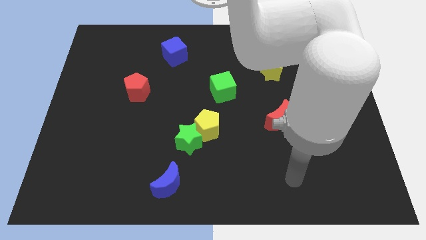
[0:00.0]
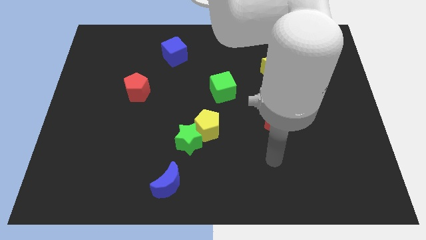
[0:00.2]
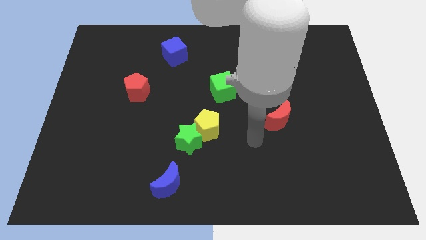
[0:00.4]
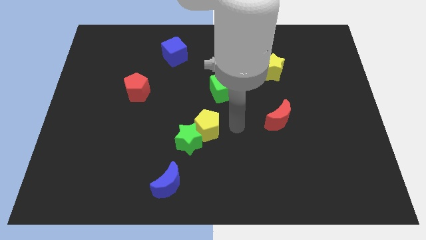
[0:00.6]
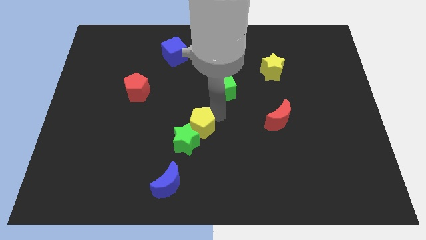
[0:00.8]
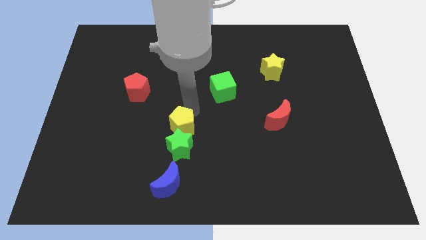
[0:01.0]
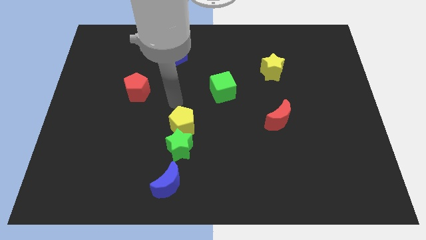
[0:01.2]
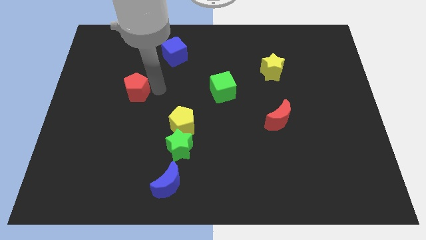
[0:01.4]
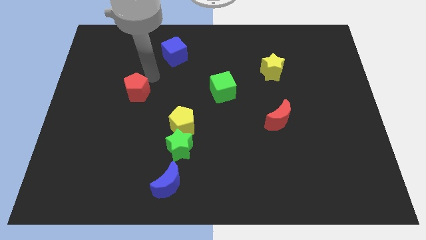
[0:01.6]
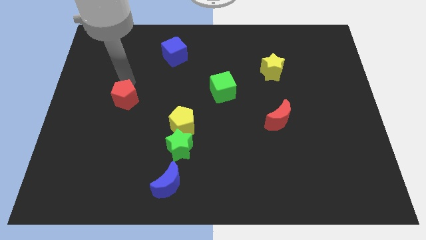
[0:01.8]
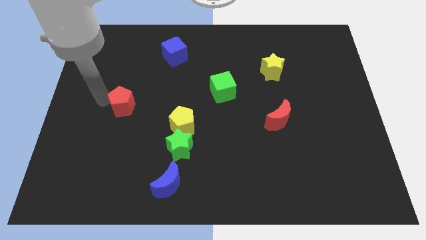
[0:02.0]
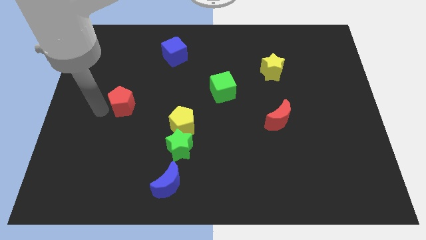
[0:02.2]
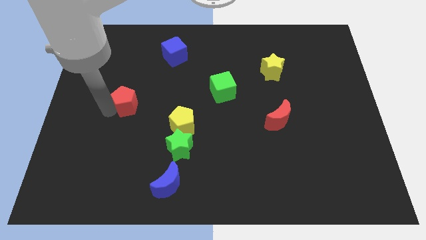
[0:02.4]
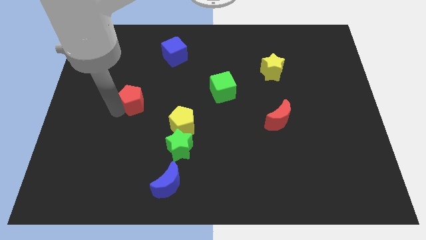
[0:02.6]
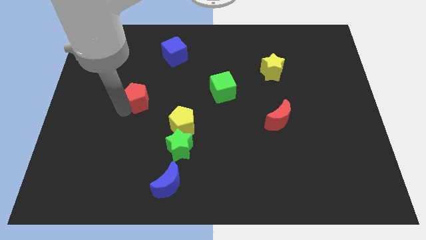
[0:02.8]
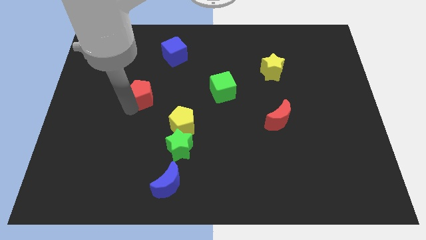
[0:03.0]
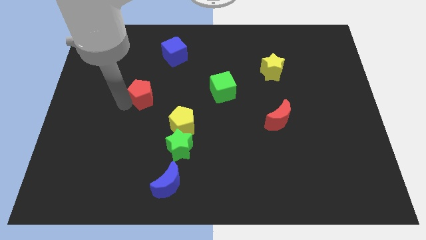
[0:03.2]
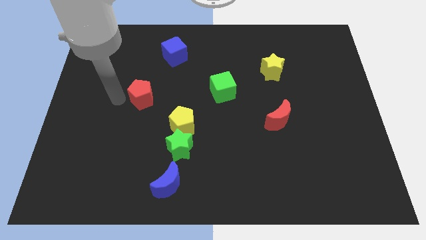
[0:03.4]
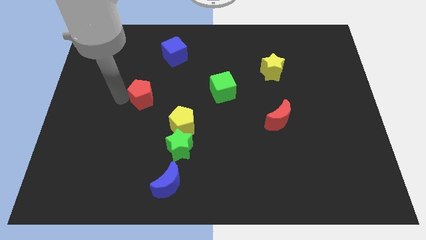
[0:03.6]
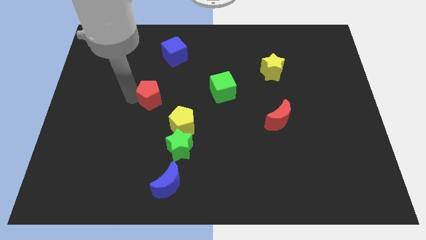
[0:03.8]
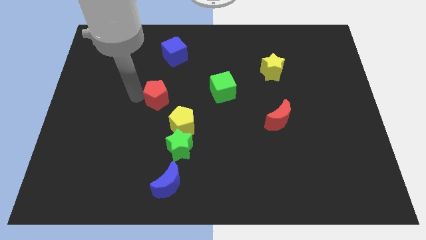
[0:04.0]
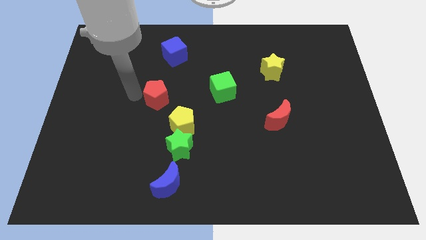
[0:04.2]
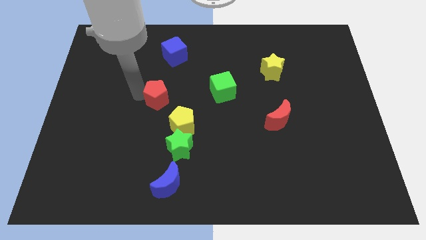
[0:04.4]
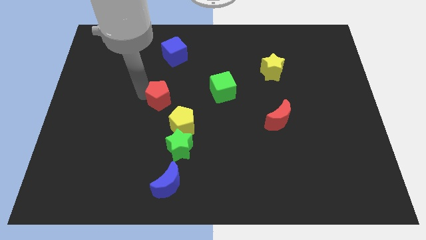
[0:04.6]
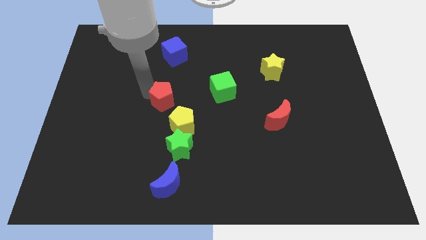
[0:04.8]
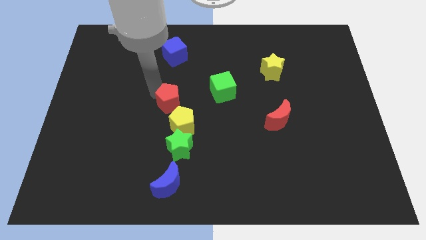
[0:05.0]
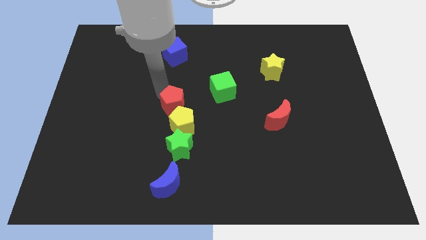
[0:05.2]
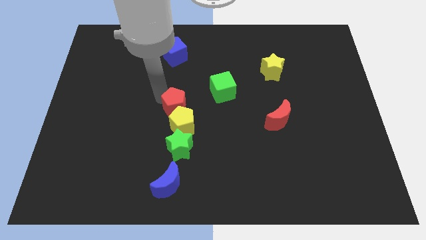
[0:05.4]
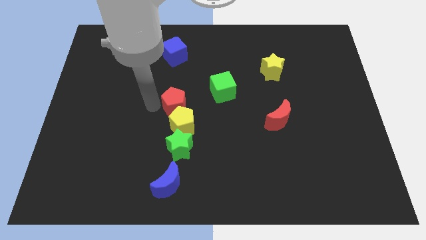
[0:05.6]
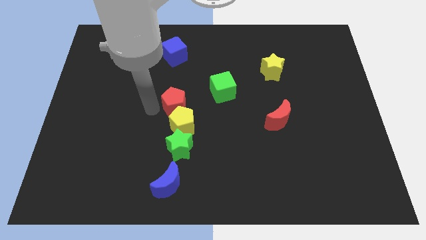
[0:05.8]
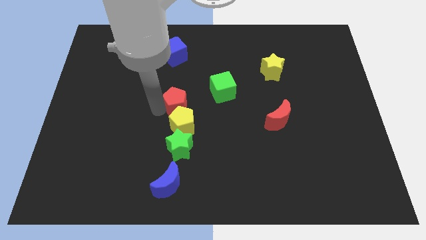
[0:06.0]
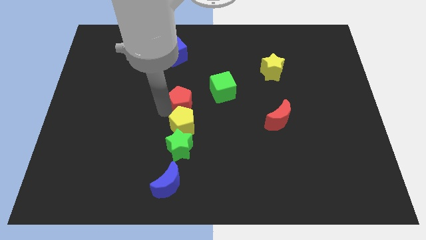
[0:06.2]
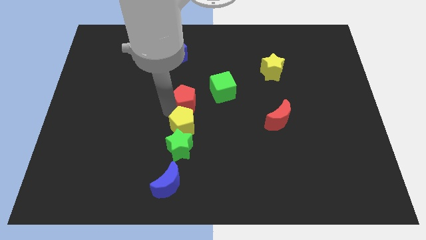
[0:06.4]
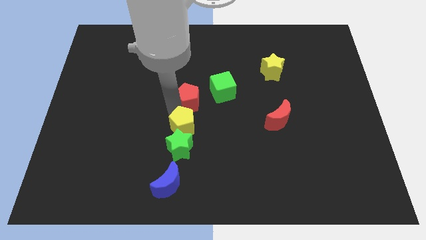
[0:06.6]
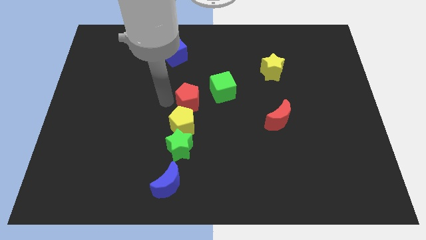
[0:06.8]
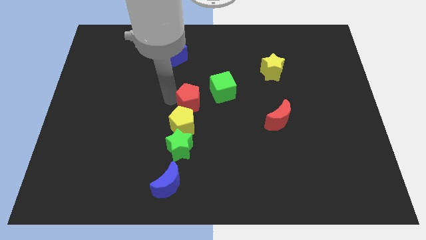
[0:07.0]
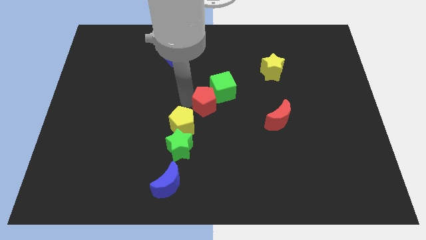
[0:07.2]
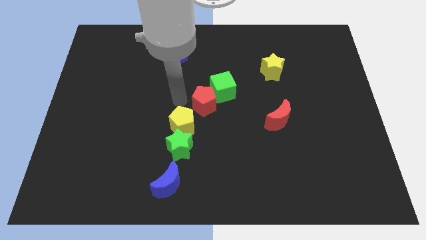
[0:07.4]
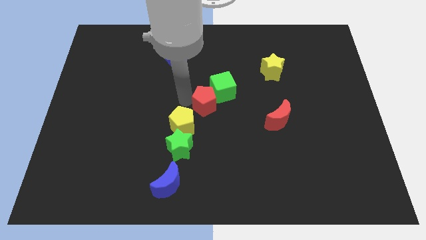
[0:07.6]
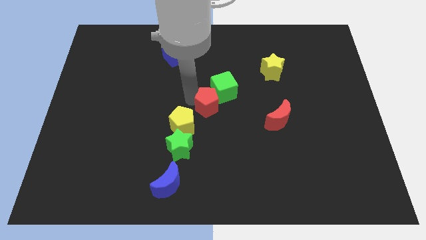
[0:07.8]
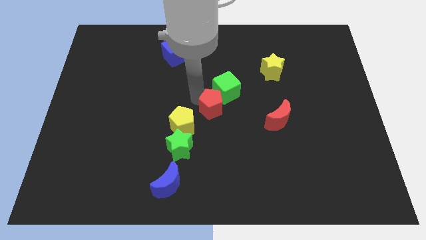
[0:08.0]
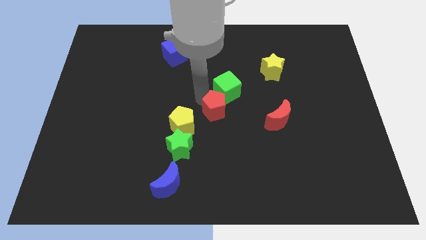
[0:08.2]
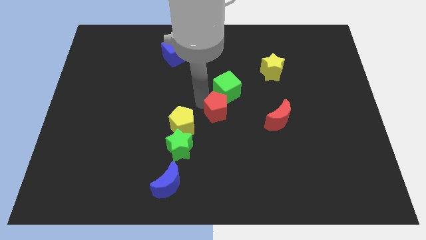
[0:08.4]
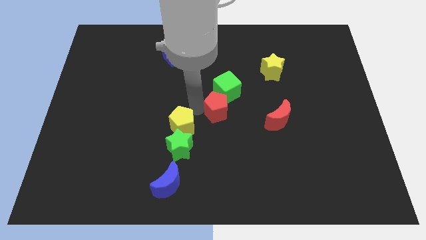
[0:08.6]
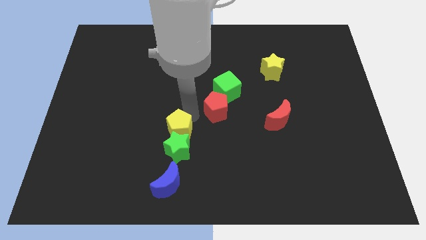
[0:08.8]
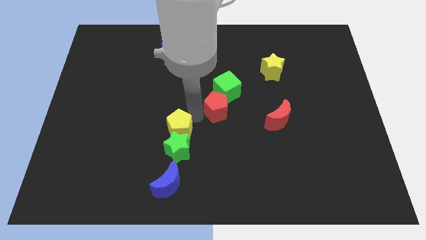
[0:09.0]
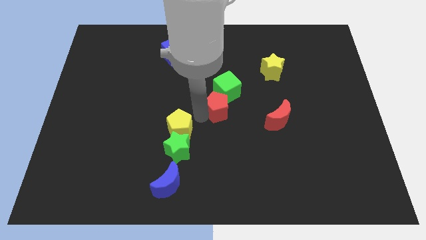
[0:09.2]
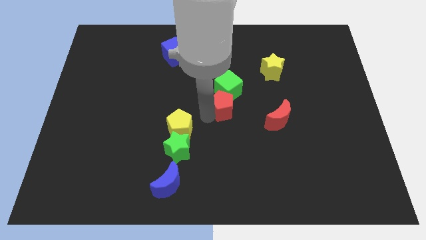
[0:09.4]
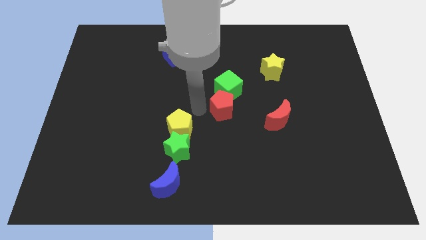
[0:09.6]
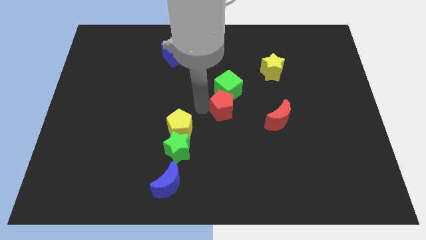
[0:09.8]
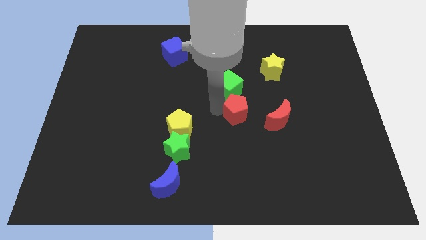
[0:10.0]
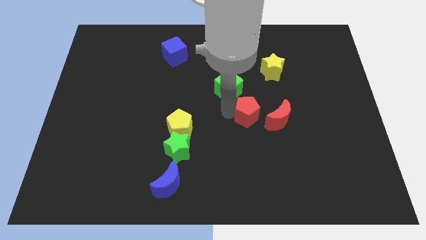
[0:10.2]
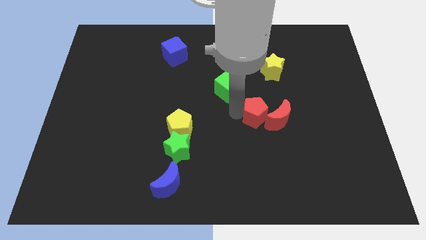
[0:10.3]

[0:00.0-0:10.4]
push the red pentagon close to the red moon

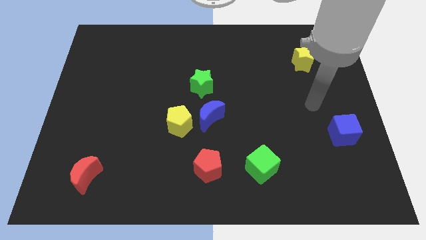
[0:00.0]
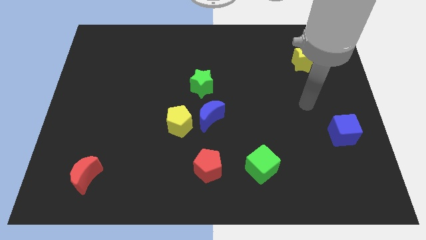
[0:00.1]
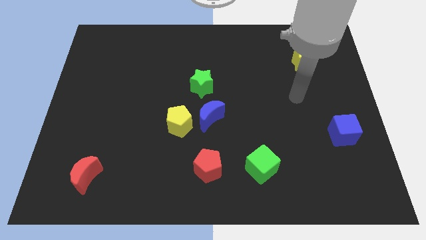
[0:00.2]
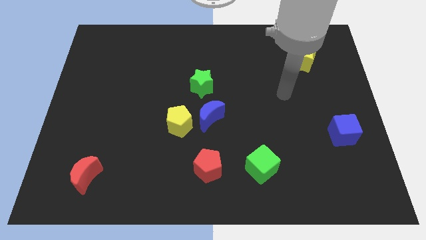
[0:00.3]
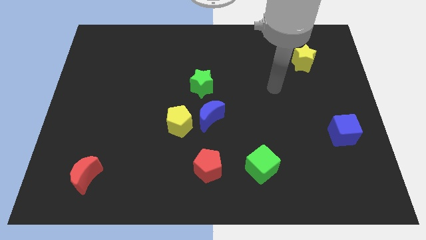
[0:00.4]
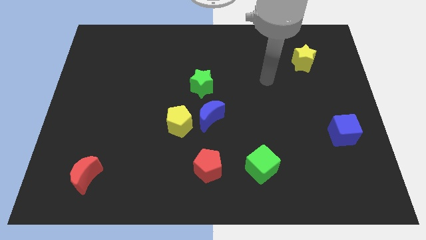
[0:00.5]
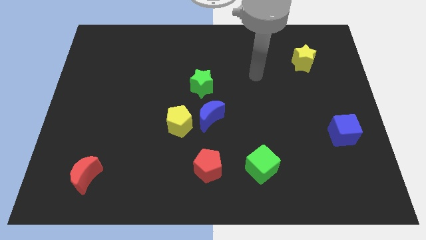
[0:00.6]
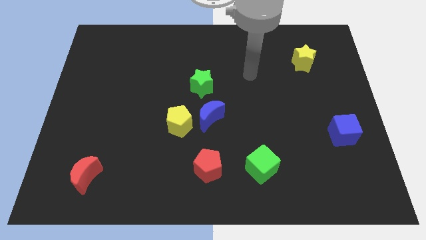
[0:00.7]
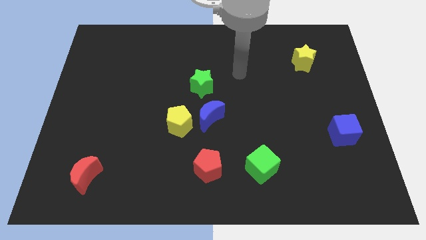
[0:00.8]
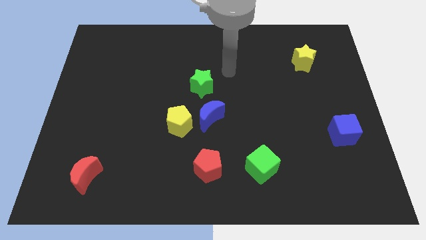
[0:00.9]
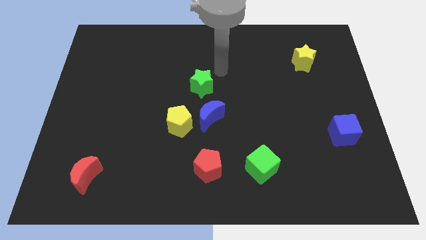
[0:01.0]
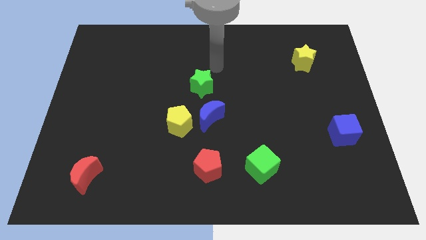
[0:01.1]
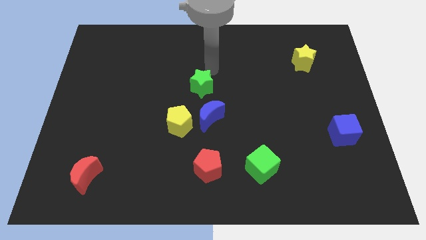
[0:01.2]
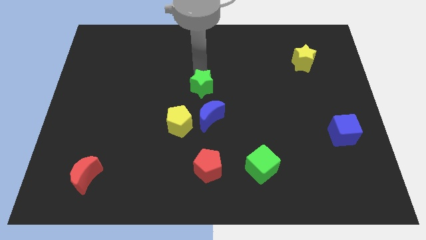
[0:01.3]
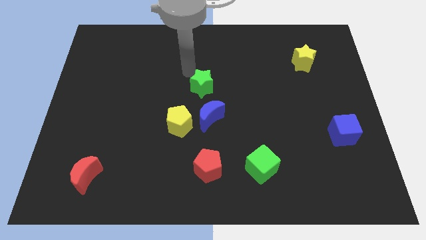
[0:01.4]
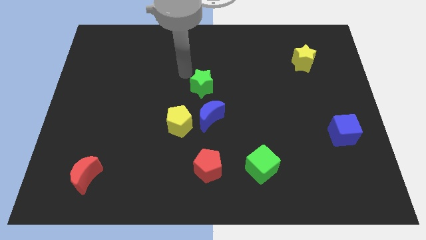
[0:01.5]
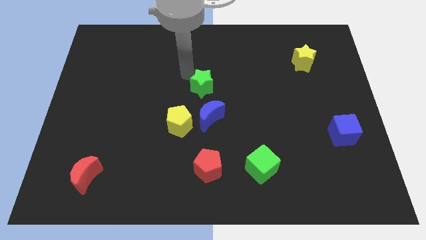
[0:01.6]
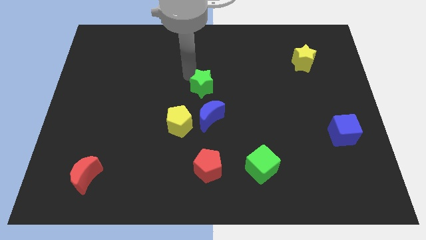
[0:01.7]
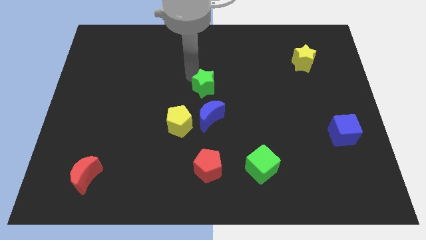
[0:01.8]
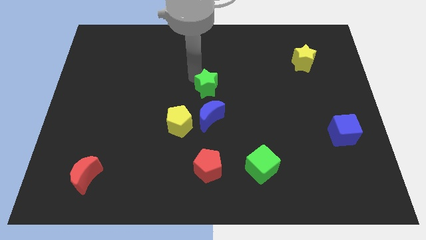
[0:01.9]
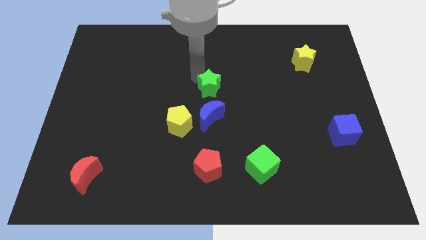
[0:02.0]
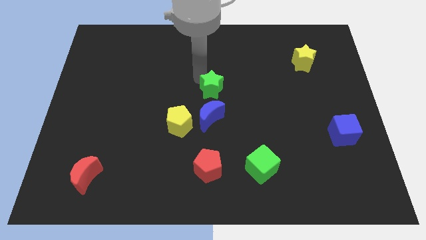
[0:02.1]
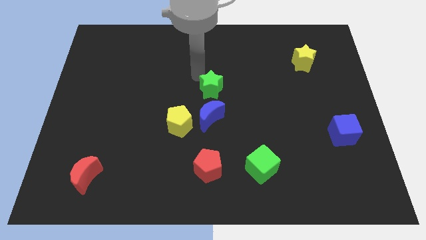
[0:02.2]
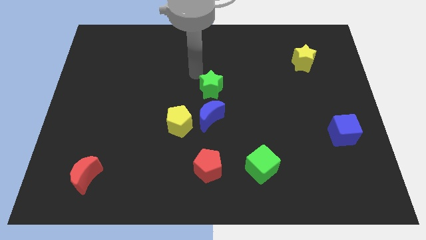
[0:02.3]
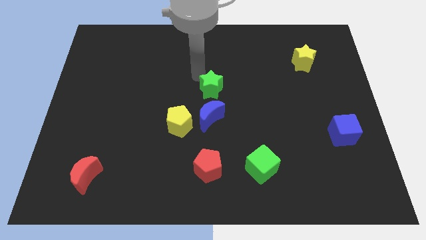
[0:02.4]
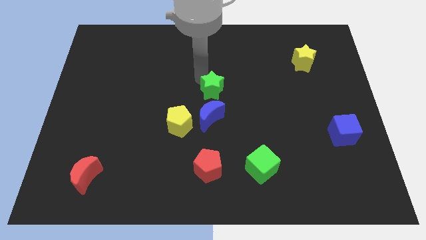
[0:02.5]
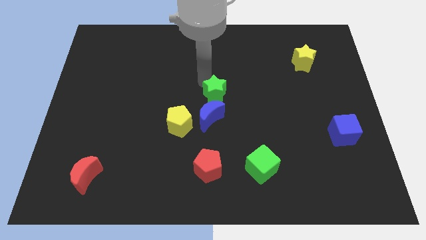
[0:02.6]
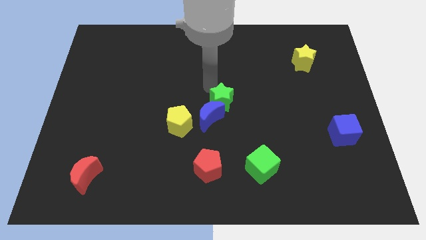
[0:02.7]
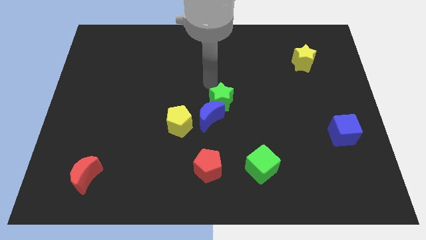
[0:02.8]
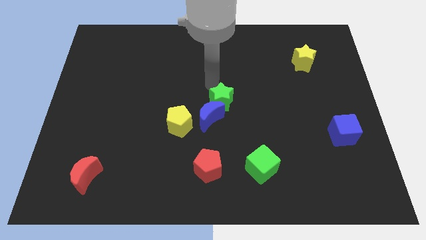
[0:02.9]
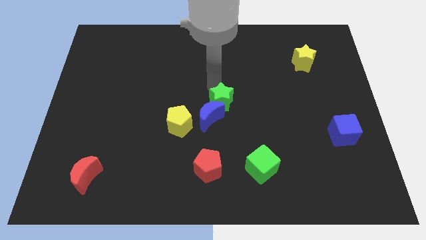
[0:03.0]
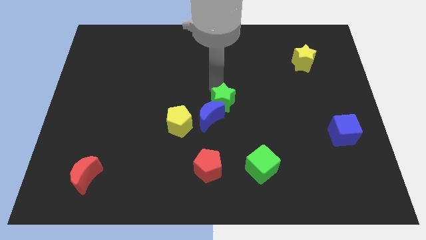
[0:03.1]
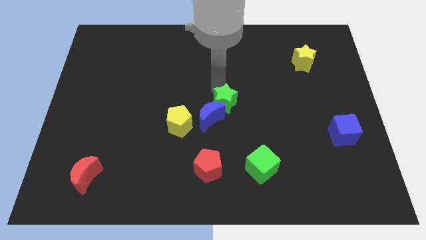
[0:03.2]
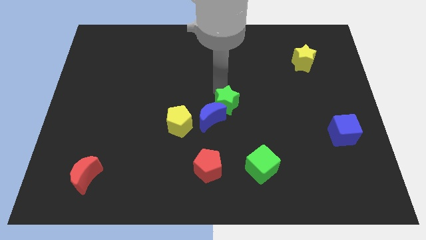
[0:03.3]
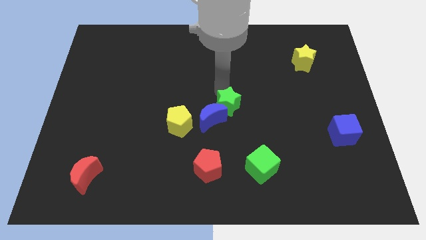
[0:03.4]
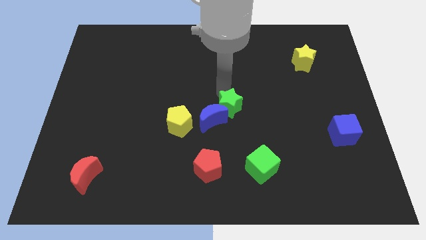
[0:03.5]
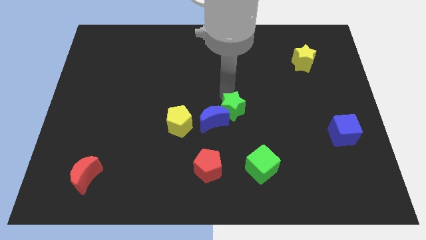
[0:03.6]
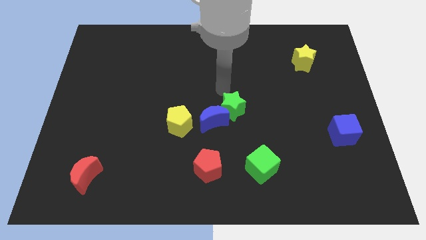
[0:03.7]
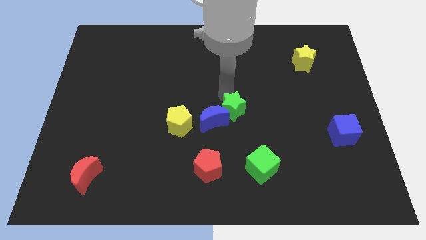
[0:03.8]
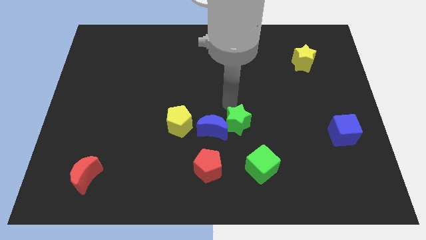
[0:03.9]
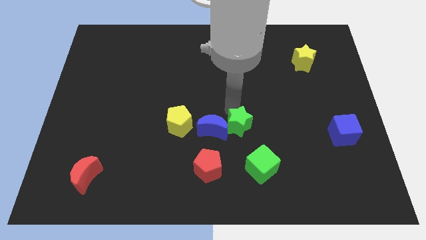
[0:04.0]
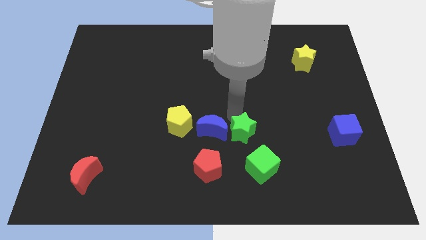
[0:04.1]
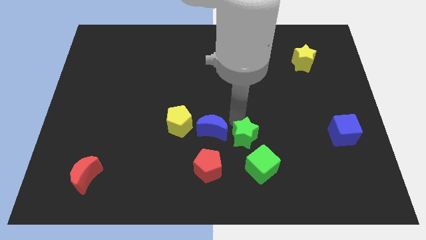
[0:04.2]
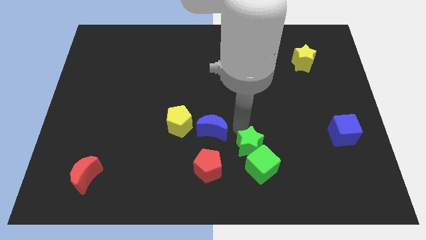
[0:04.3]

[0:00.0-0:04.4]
push the green star next to the green cube
